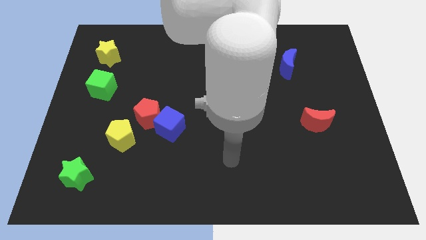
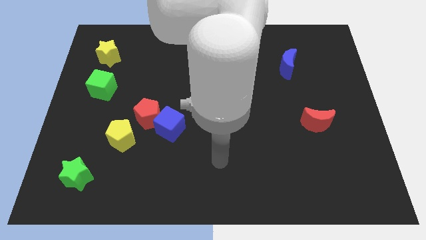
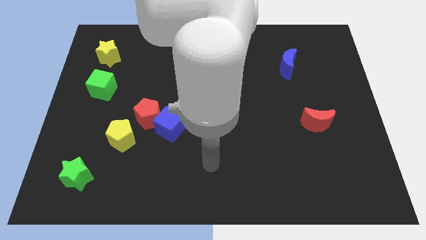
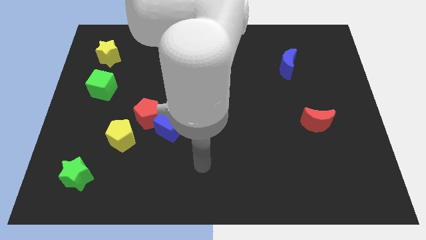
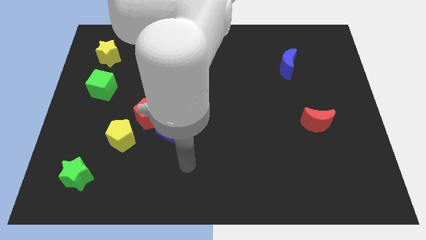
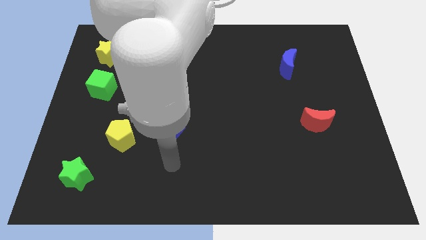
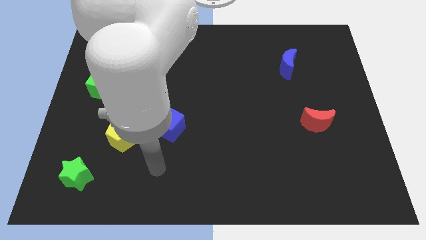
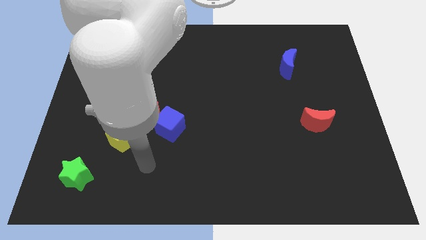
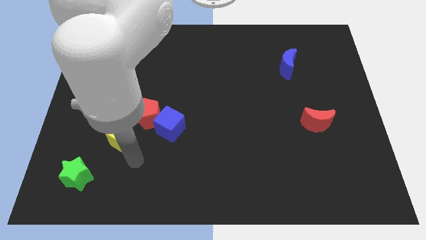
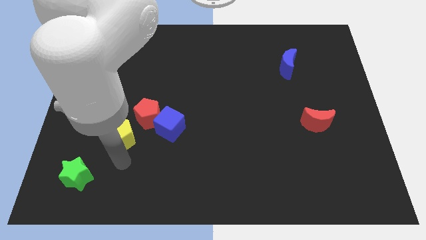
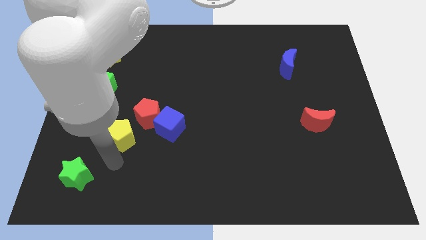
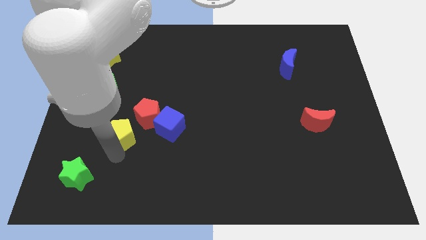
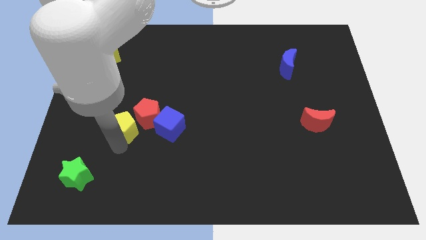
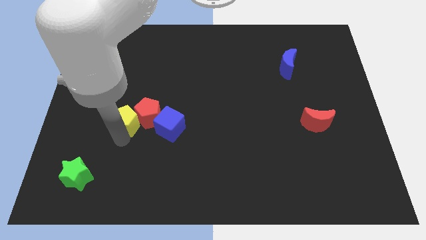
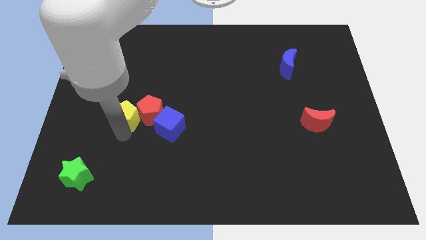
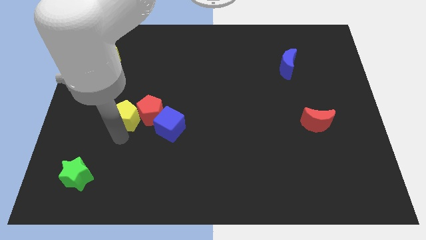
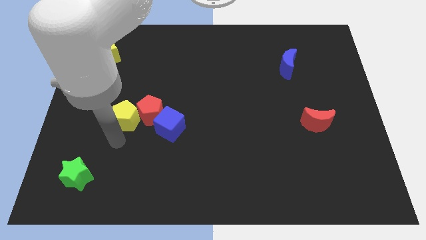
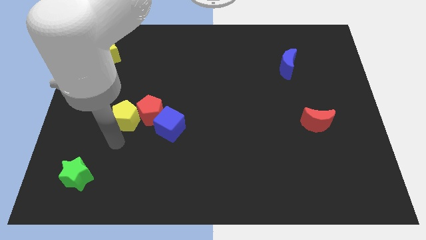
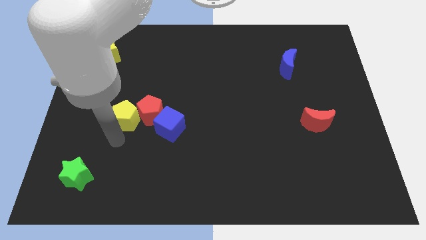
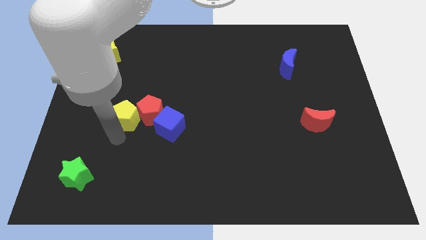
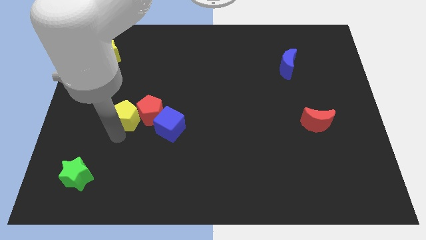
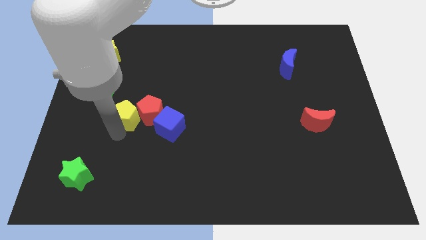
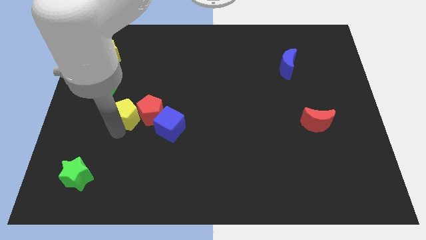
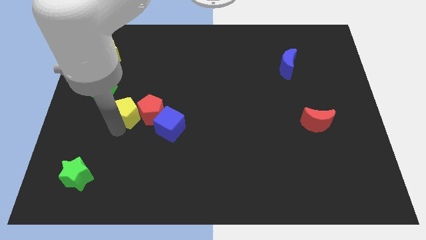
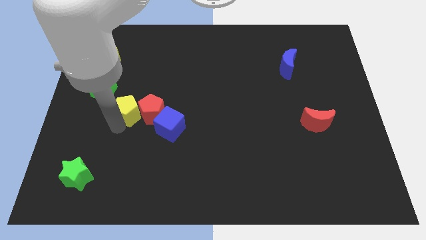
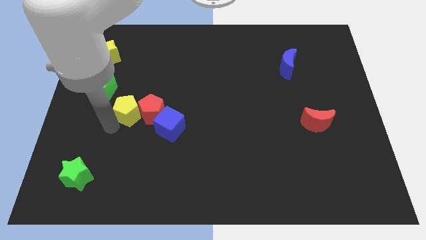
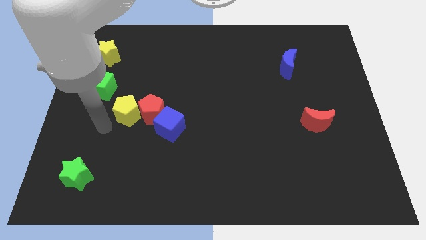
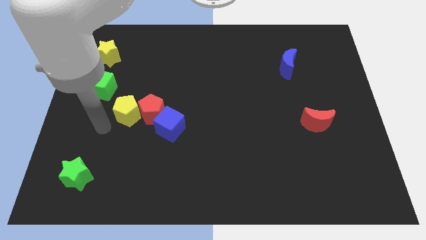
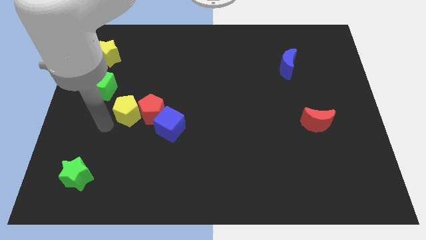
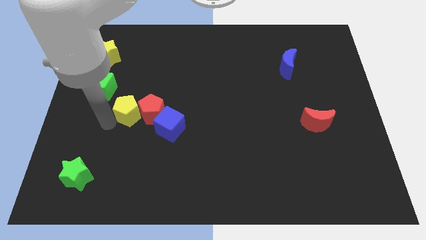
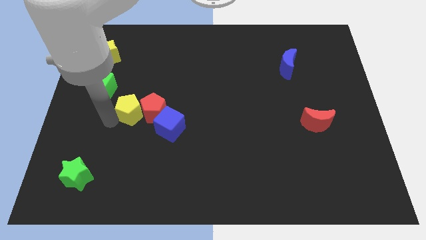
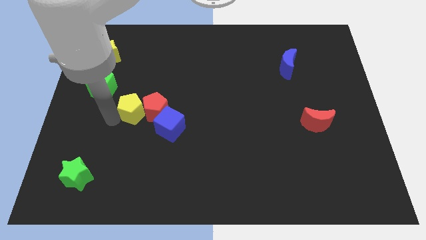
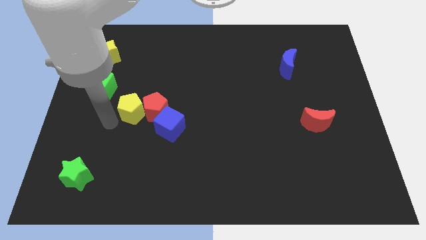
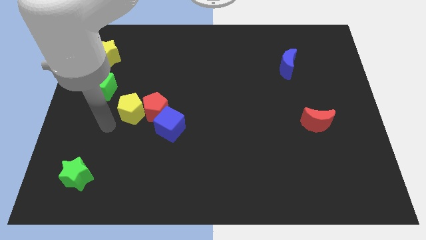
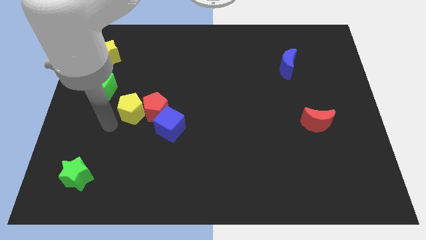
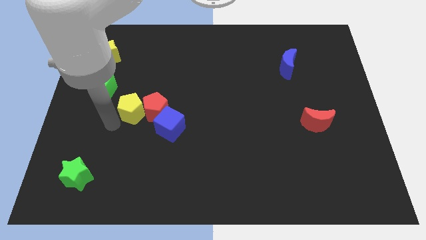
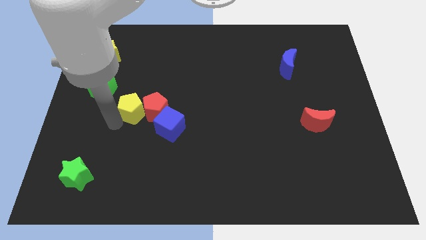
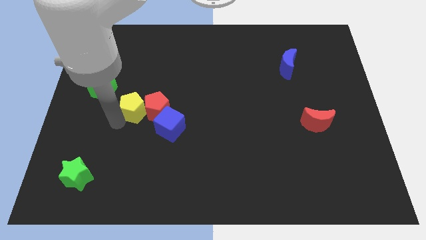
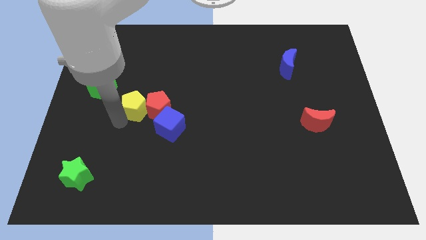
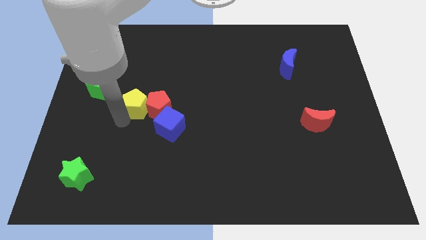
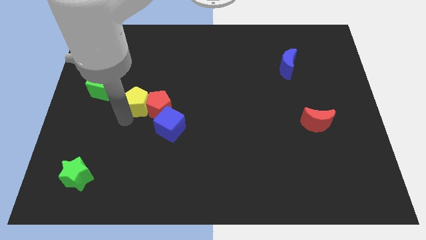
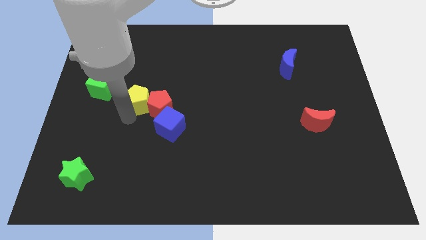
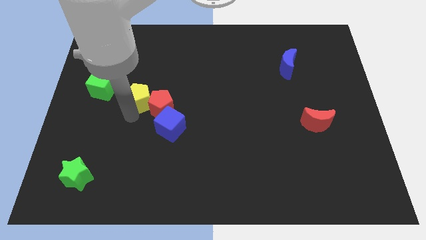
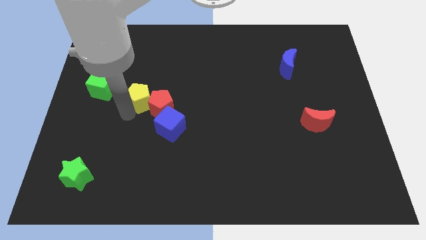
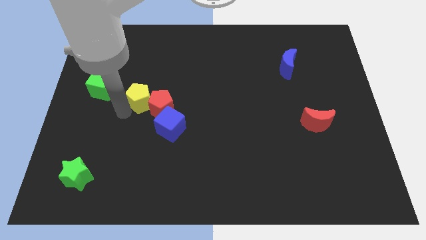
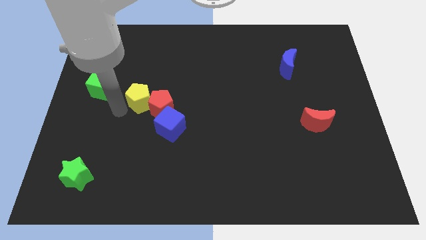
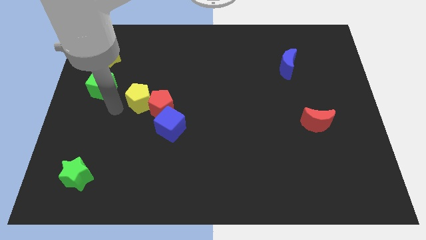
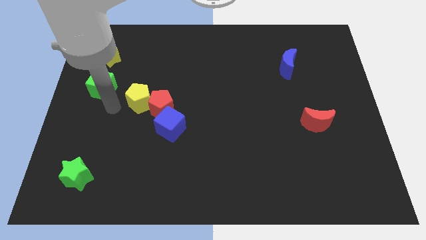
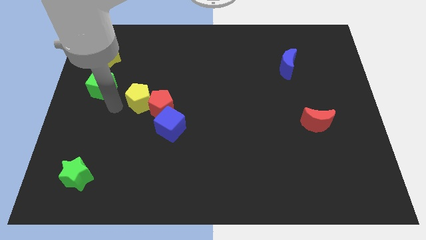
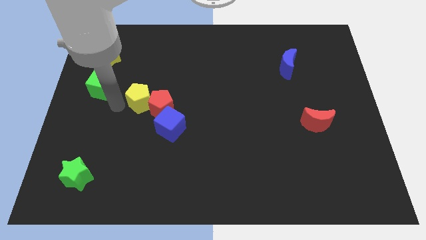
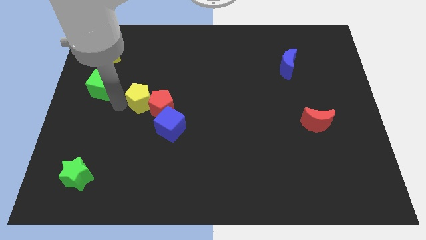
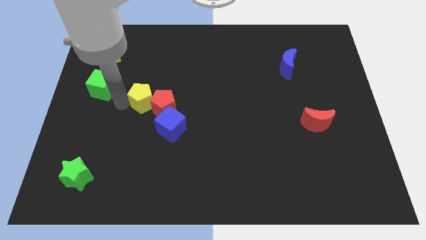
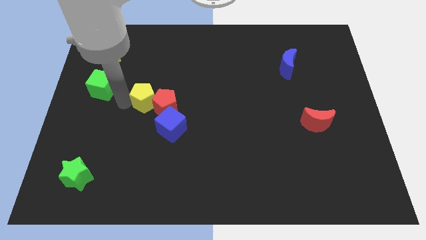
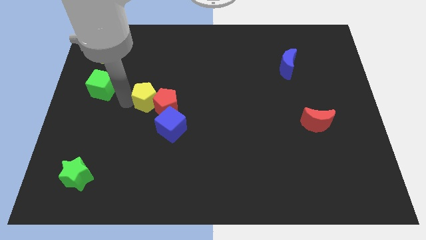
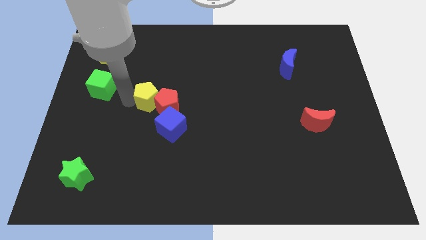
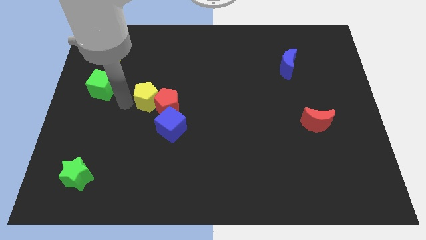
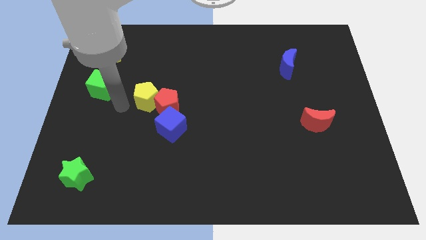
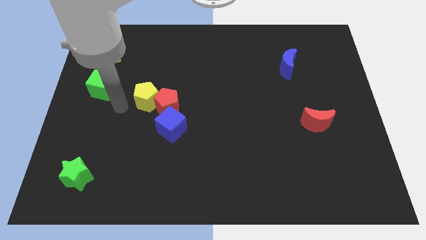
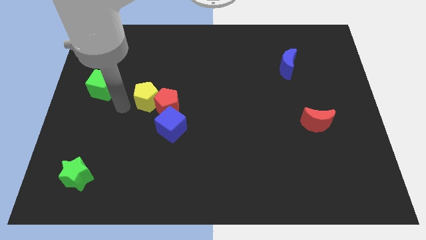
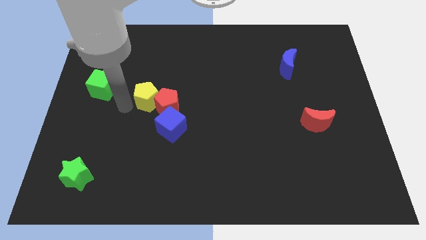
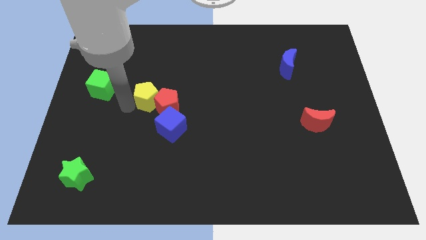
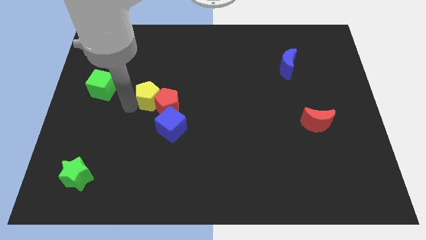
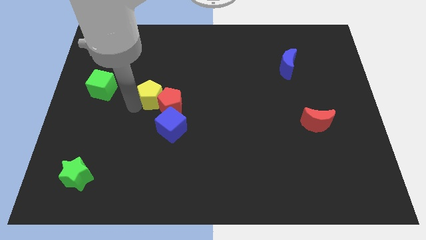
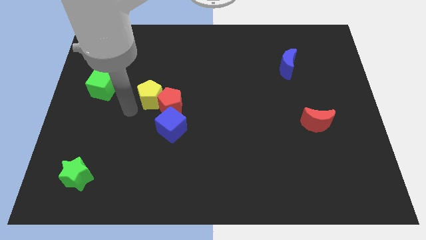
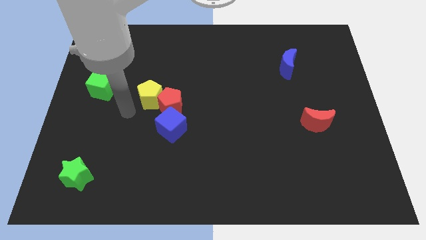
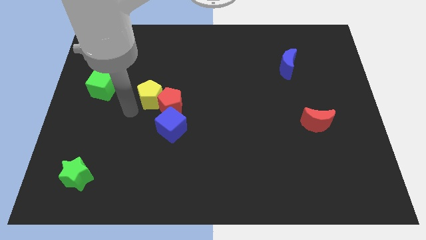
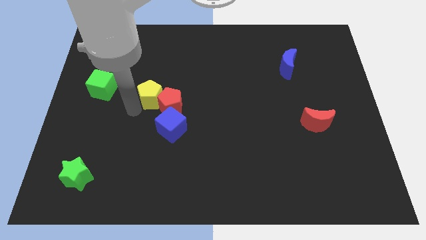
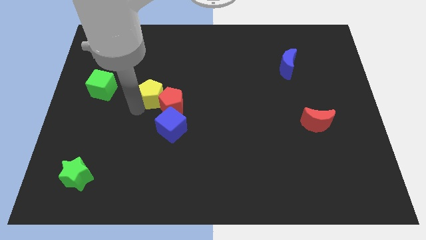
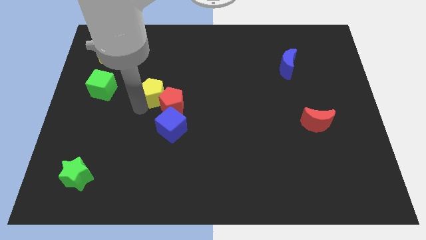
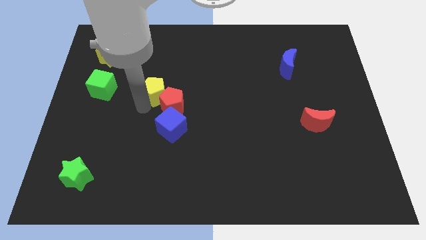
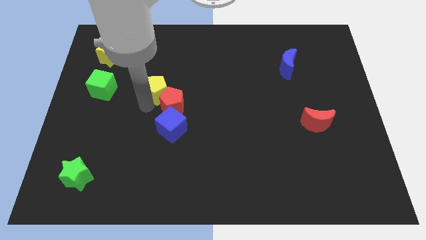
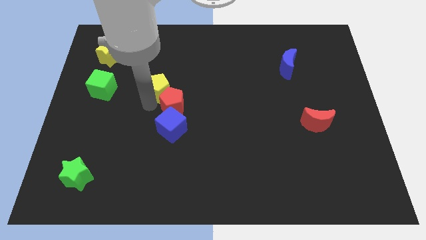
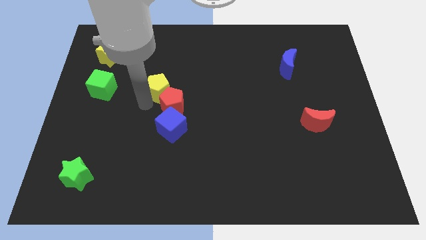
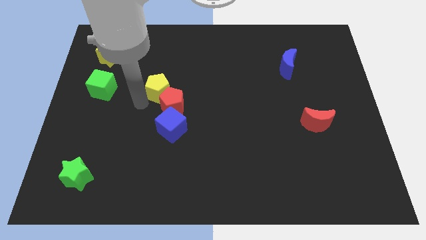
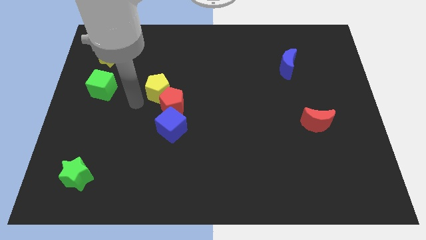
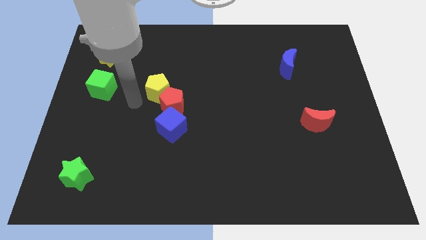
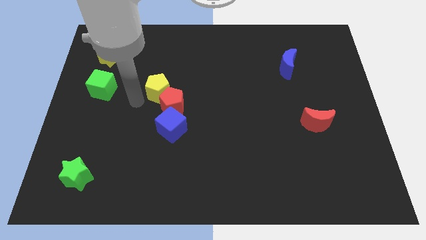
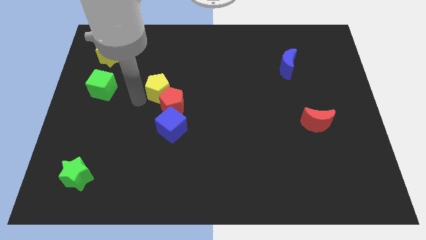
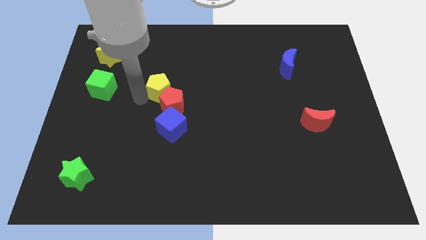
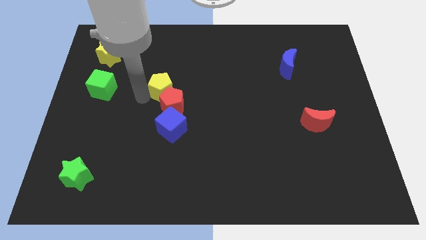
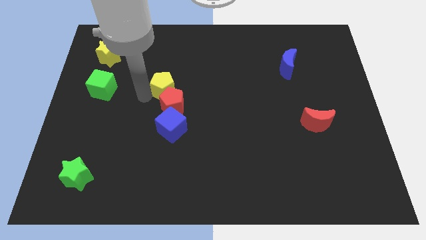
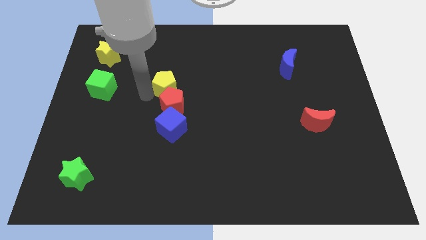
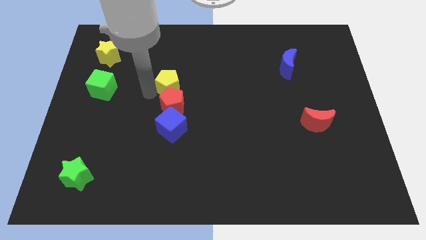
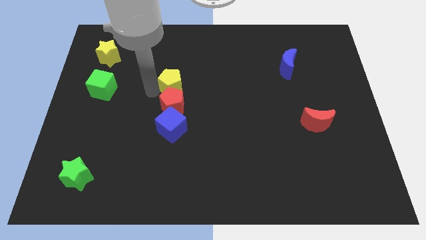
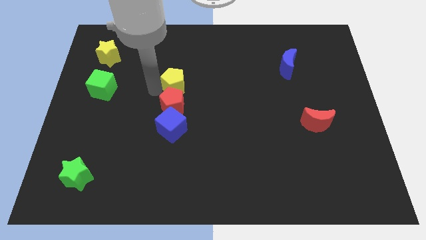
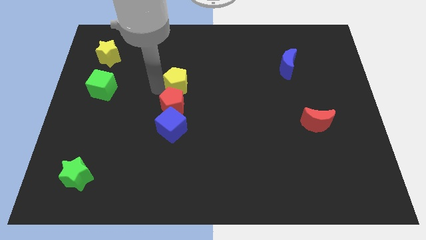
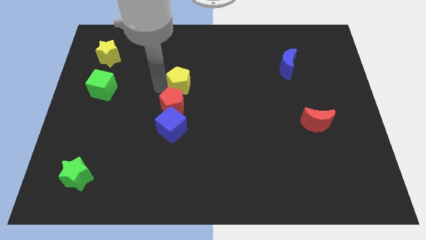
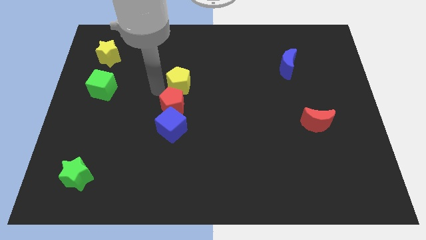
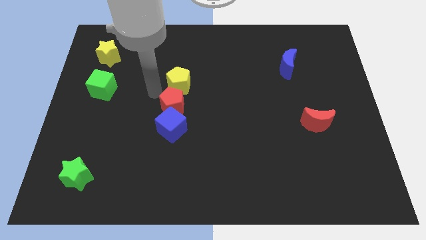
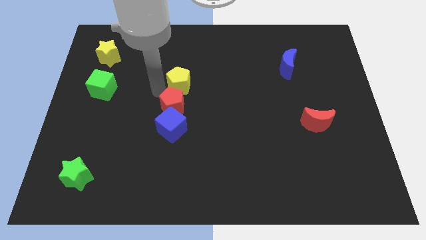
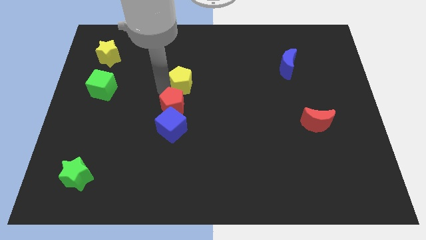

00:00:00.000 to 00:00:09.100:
slide the yellow pentagon diagonally upwards and right
